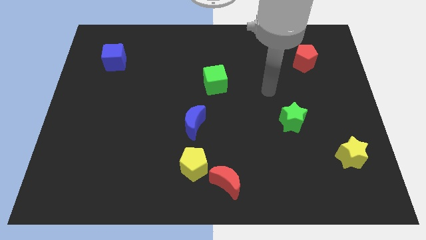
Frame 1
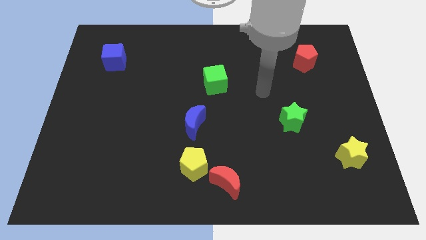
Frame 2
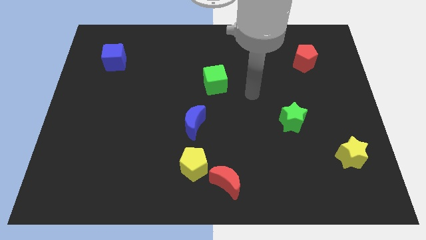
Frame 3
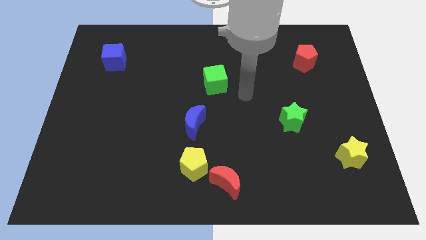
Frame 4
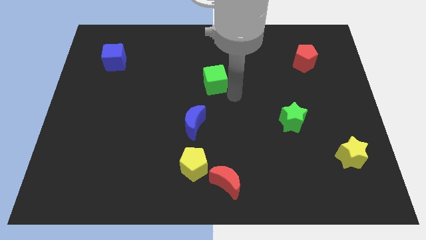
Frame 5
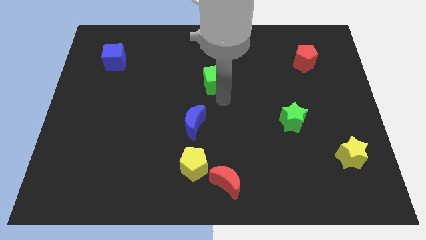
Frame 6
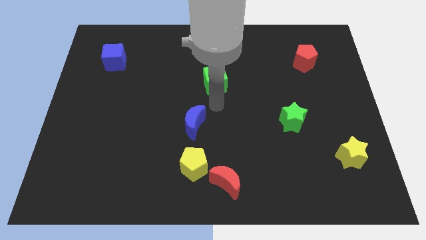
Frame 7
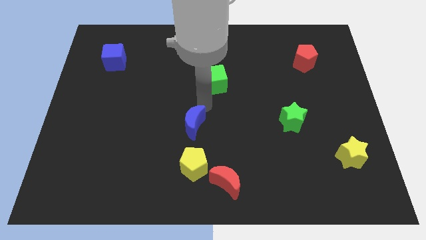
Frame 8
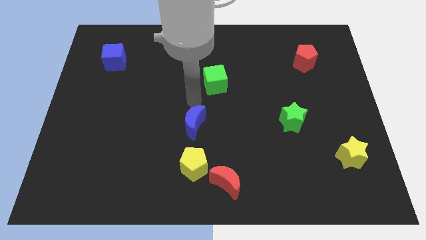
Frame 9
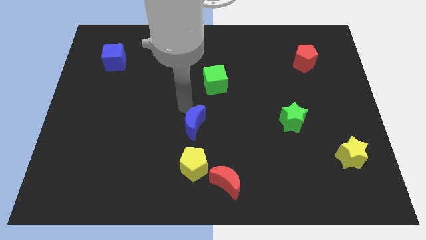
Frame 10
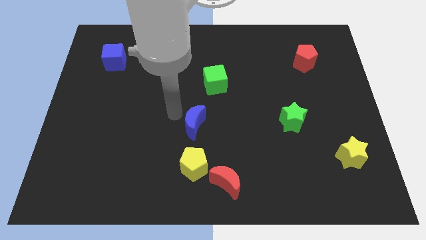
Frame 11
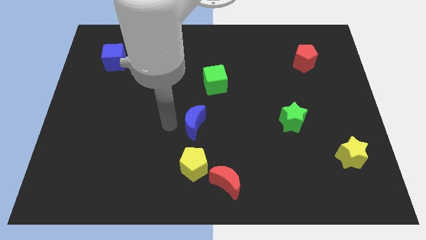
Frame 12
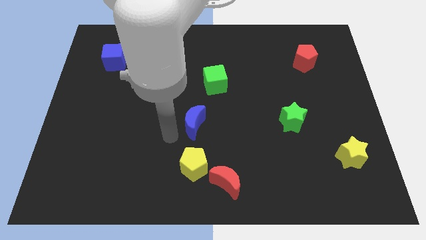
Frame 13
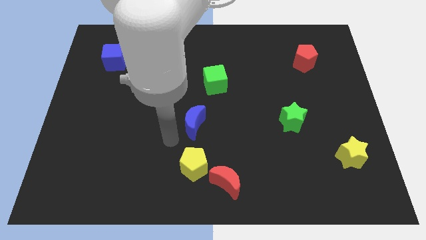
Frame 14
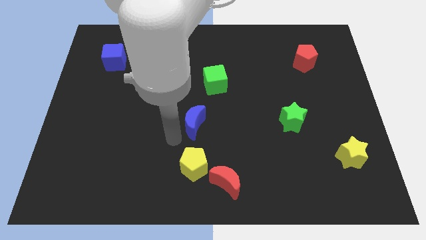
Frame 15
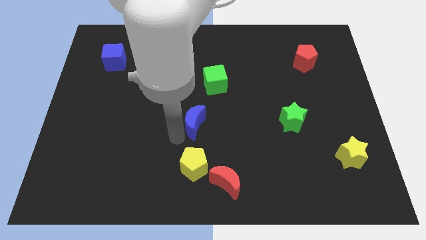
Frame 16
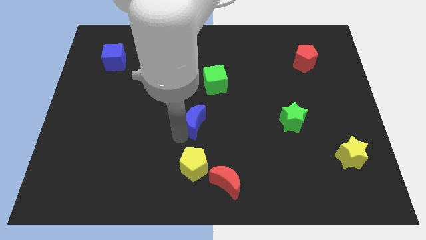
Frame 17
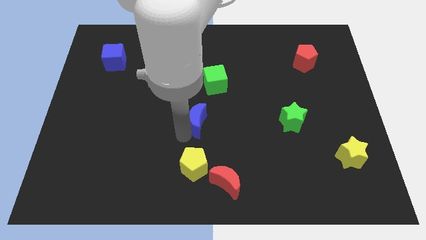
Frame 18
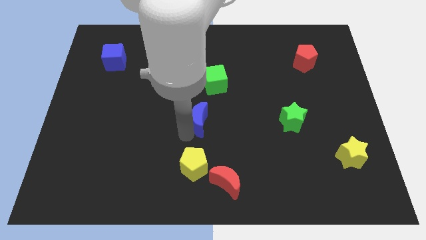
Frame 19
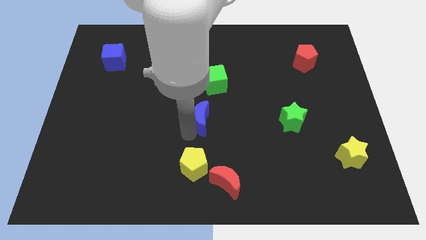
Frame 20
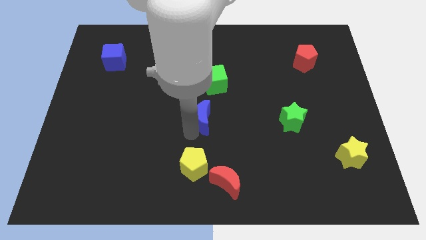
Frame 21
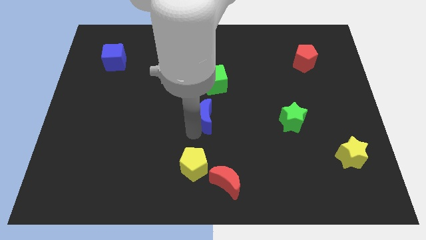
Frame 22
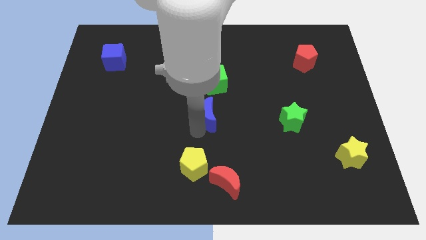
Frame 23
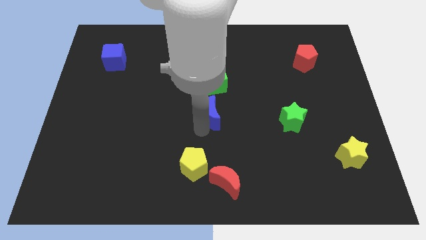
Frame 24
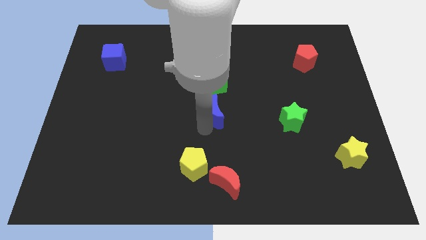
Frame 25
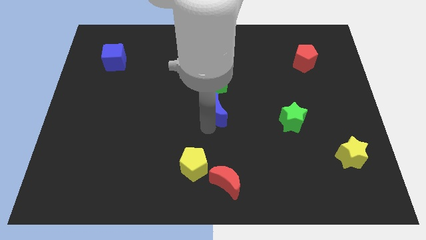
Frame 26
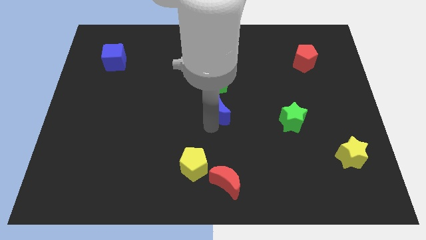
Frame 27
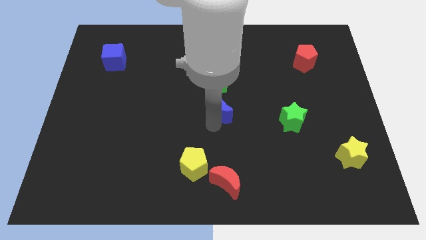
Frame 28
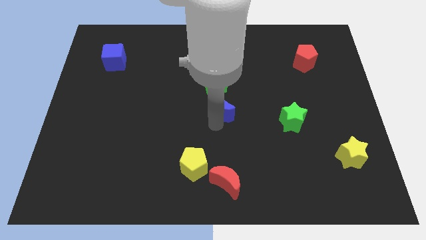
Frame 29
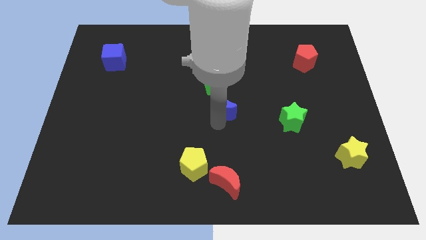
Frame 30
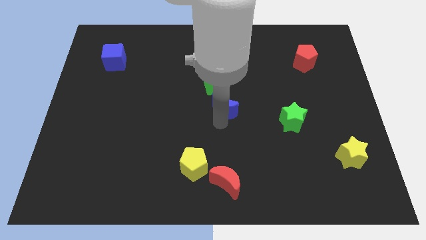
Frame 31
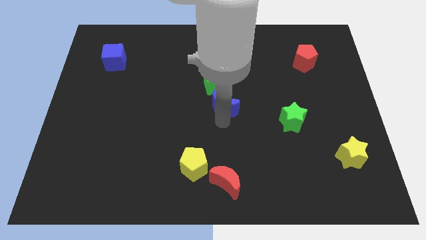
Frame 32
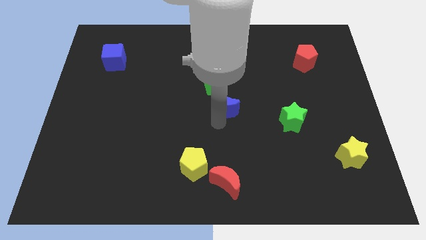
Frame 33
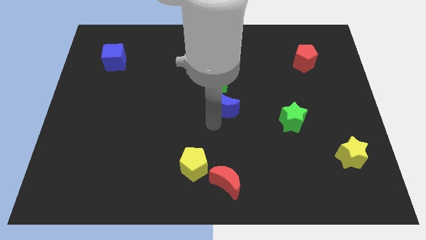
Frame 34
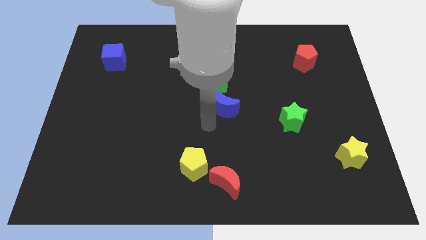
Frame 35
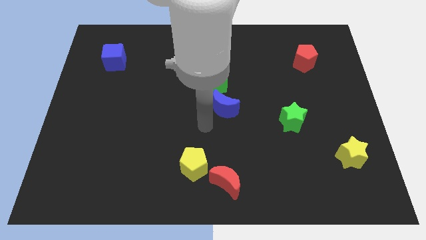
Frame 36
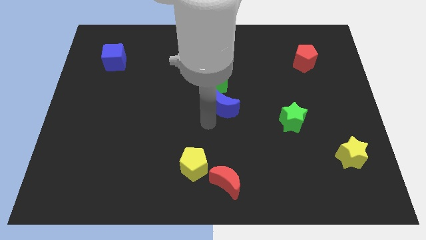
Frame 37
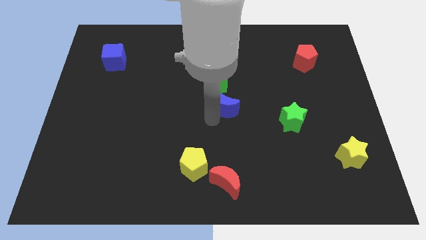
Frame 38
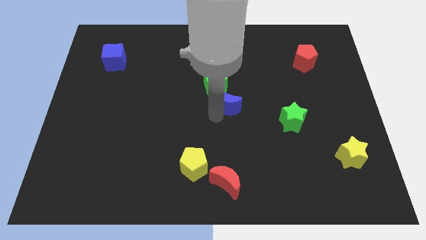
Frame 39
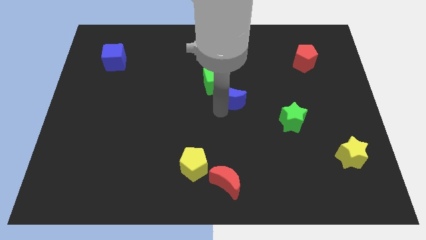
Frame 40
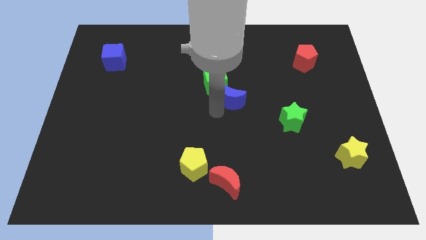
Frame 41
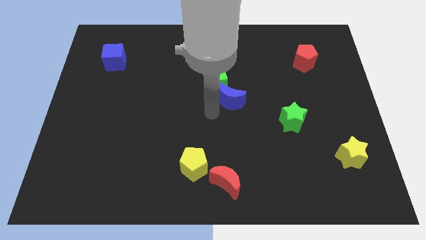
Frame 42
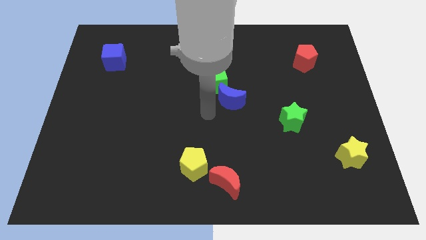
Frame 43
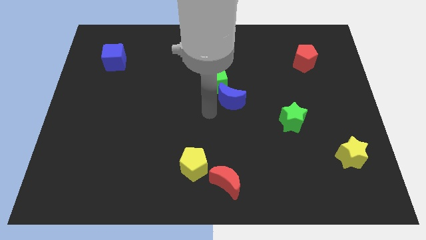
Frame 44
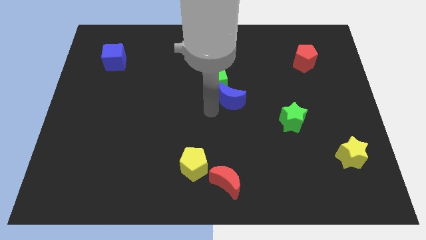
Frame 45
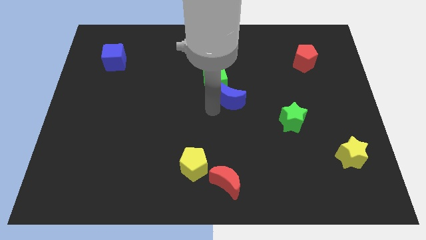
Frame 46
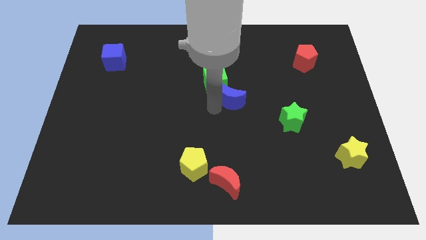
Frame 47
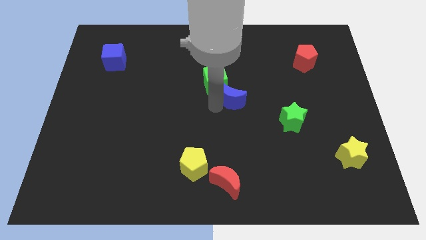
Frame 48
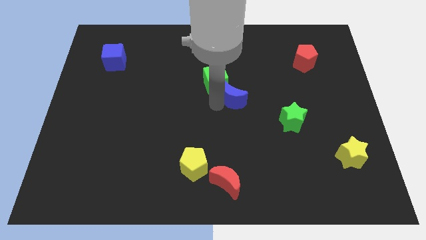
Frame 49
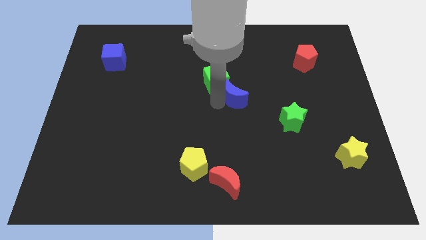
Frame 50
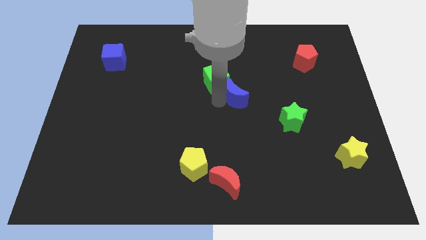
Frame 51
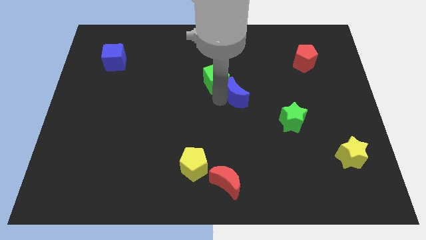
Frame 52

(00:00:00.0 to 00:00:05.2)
put the blue moon to the right of the green cube

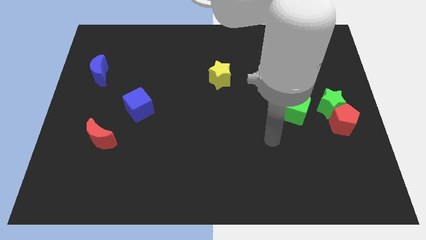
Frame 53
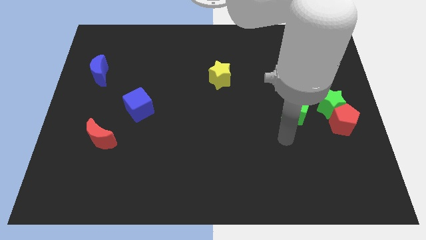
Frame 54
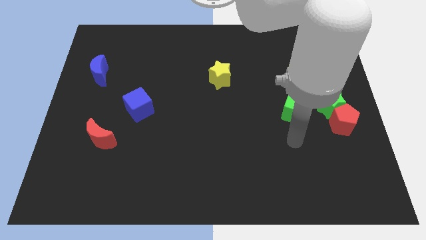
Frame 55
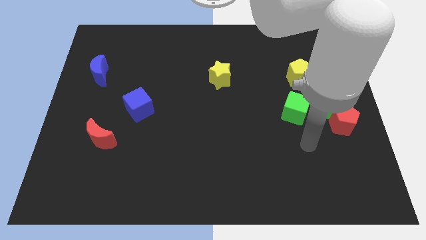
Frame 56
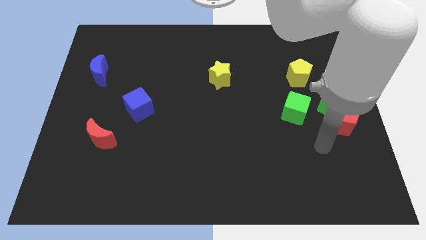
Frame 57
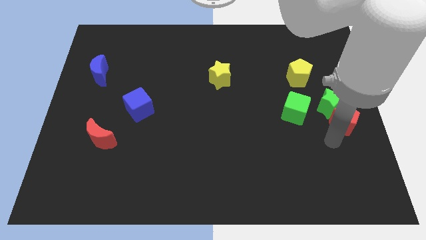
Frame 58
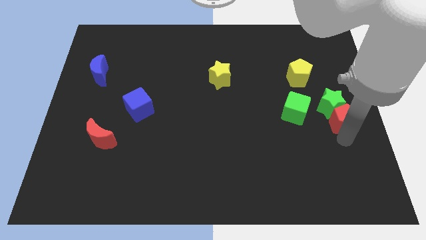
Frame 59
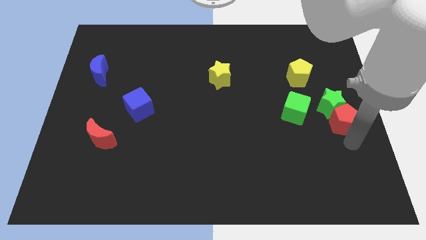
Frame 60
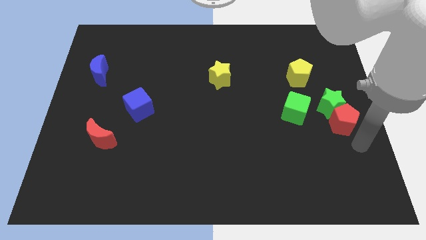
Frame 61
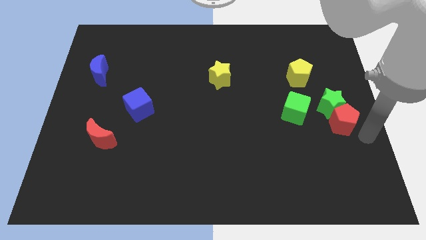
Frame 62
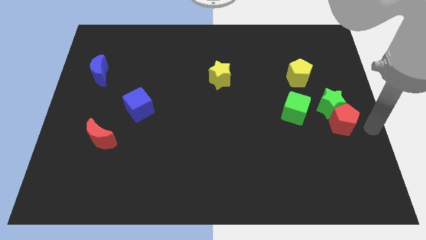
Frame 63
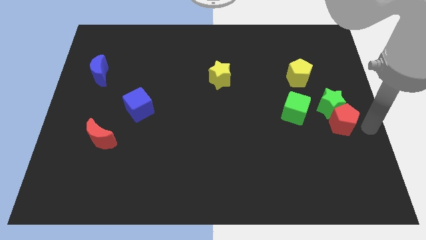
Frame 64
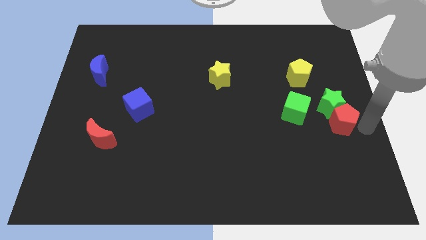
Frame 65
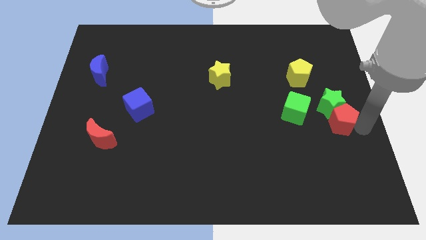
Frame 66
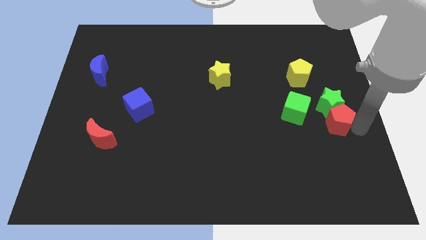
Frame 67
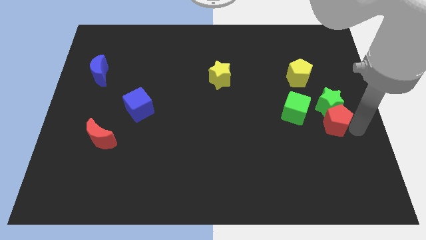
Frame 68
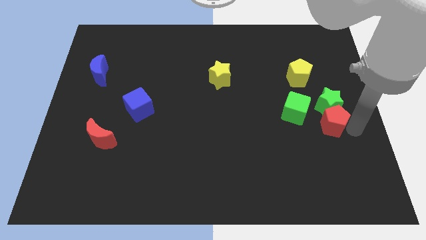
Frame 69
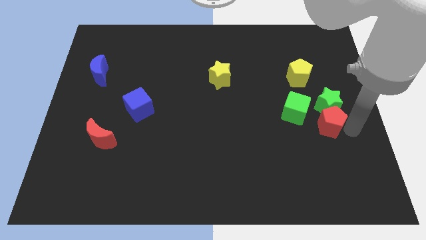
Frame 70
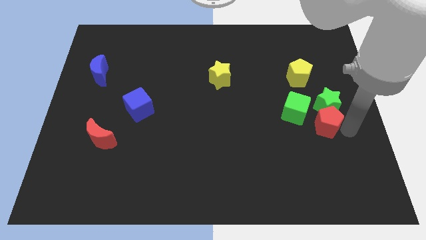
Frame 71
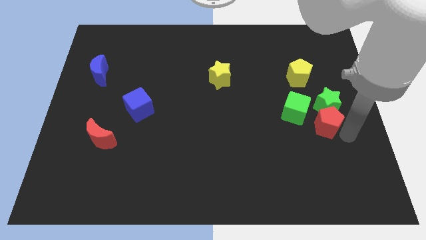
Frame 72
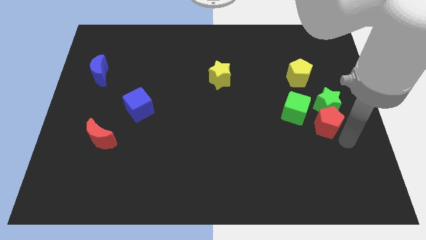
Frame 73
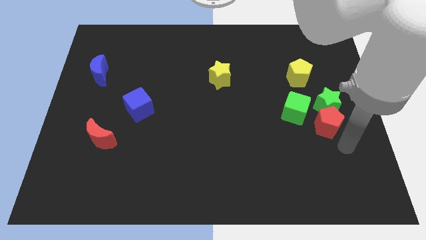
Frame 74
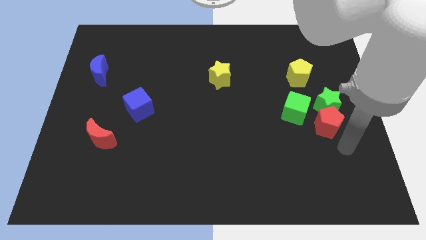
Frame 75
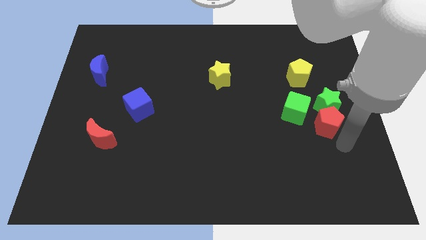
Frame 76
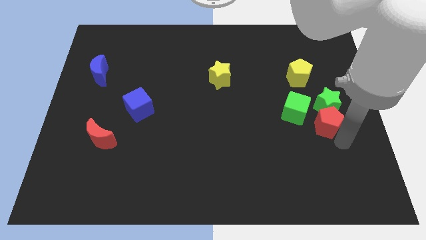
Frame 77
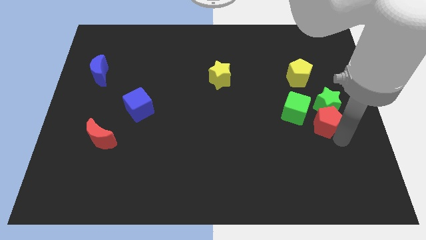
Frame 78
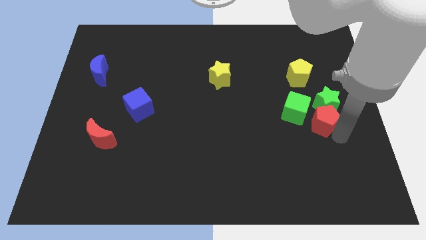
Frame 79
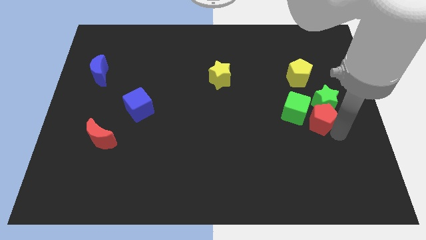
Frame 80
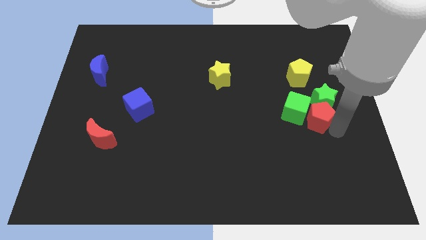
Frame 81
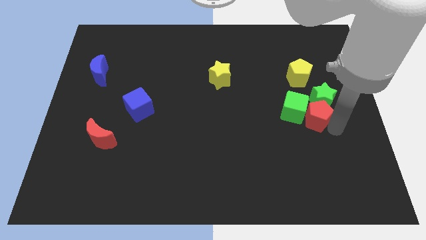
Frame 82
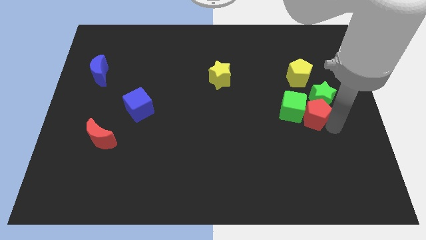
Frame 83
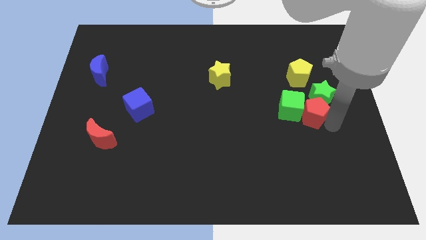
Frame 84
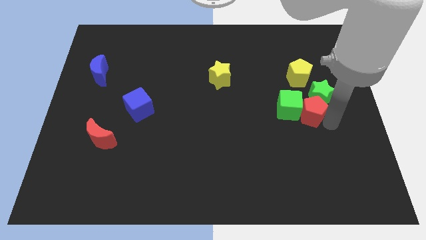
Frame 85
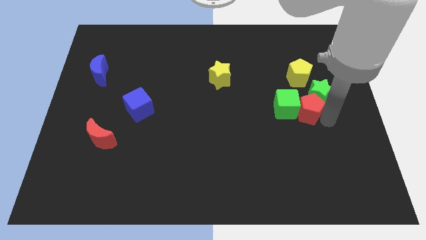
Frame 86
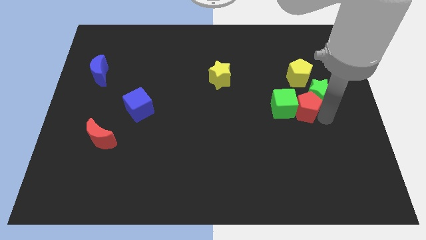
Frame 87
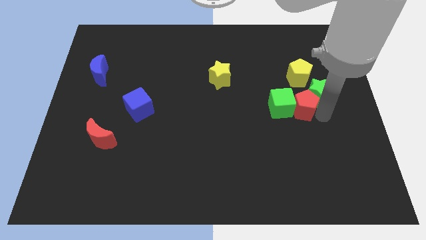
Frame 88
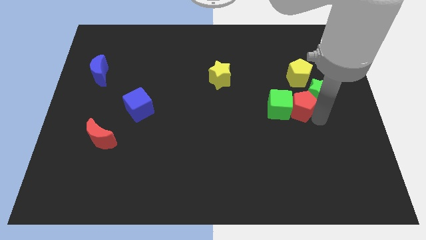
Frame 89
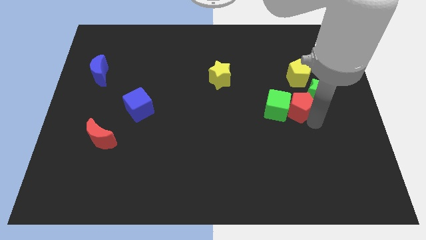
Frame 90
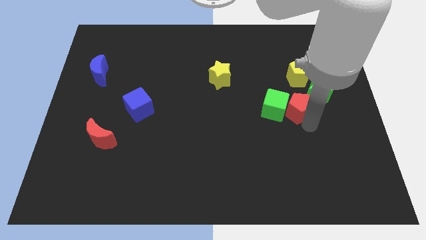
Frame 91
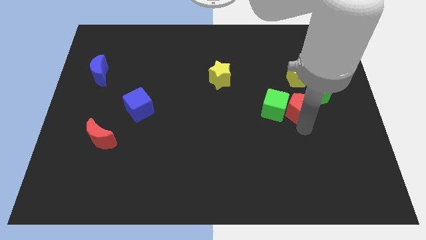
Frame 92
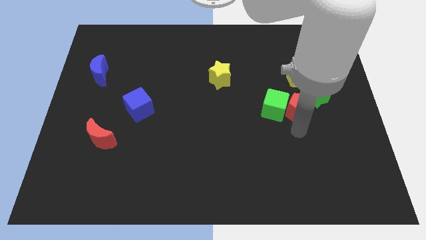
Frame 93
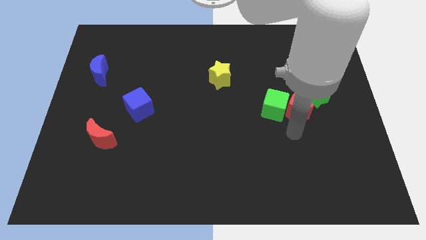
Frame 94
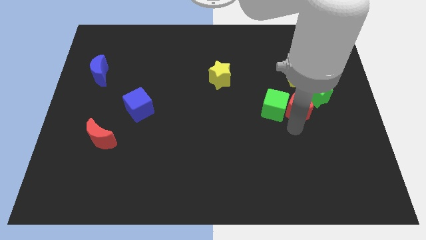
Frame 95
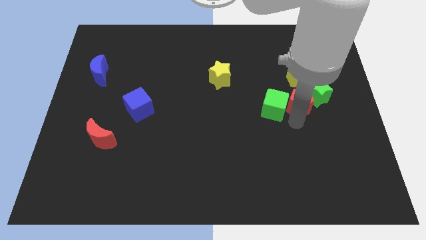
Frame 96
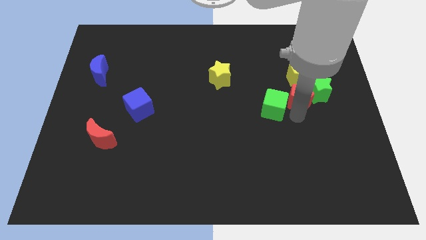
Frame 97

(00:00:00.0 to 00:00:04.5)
slide the red pentagon to the bottom left side of the yellow pentagon
